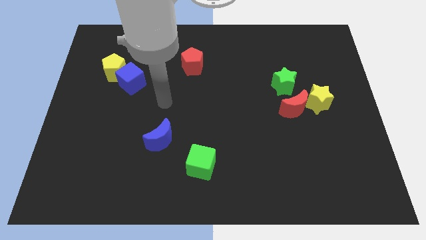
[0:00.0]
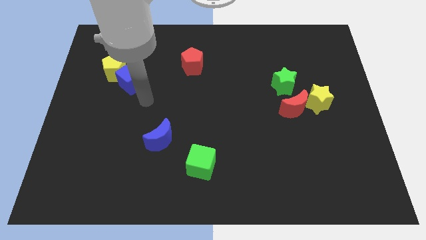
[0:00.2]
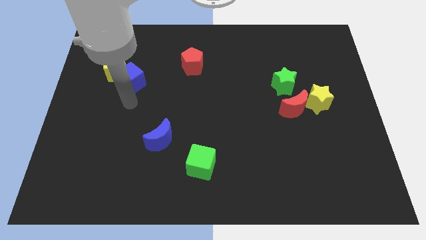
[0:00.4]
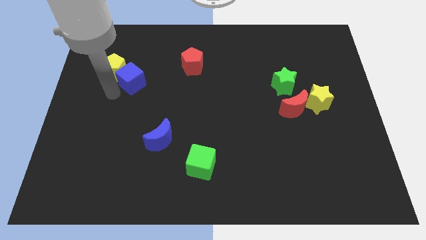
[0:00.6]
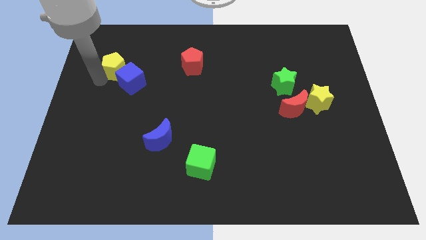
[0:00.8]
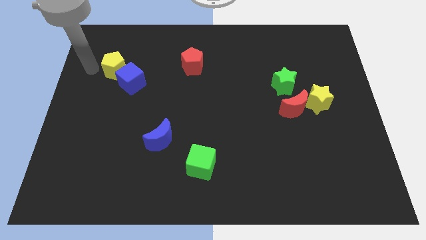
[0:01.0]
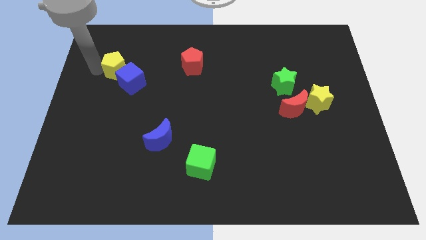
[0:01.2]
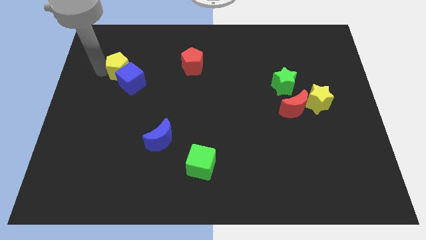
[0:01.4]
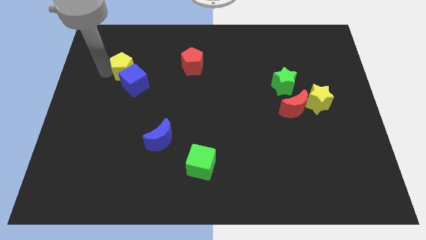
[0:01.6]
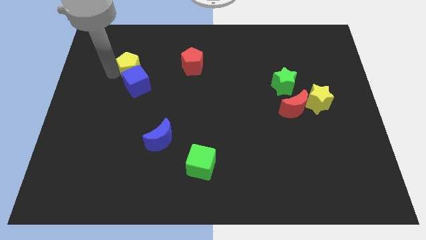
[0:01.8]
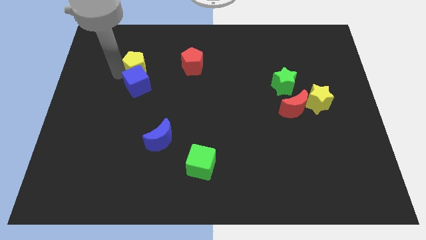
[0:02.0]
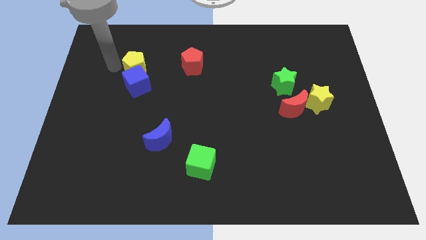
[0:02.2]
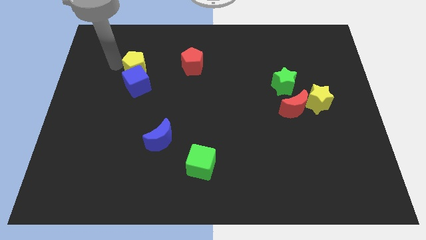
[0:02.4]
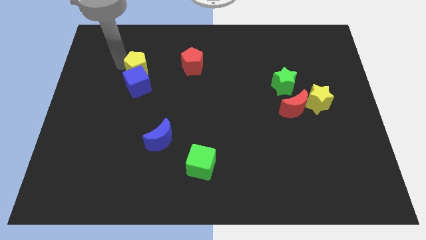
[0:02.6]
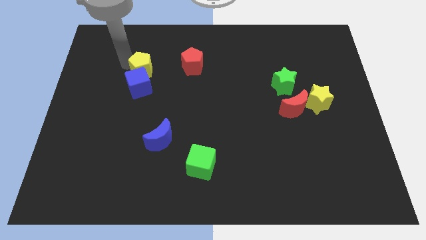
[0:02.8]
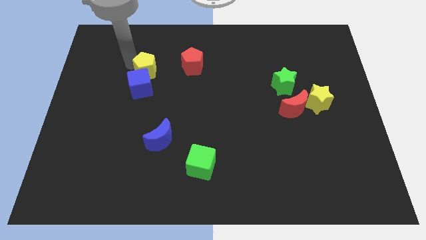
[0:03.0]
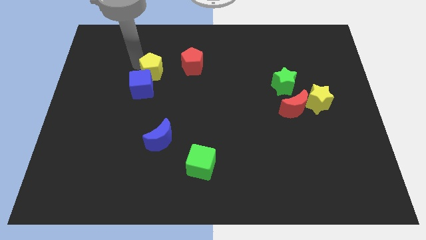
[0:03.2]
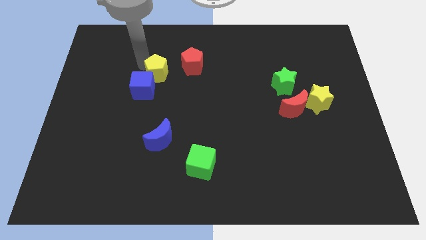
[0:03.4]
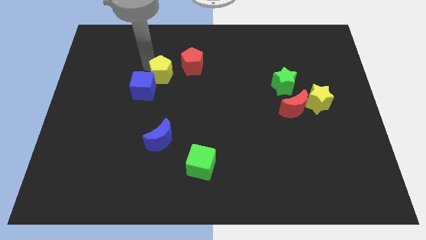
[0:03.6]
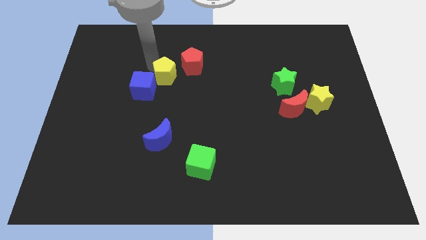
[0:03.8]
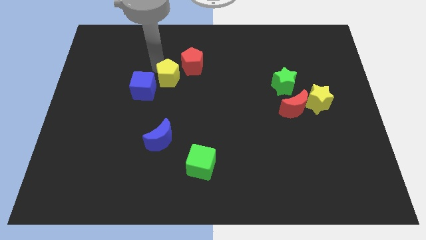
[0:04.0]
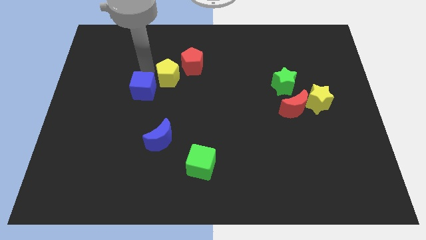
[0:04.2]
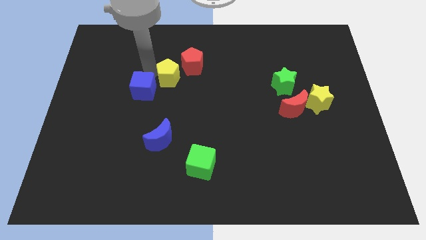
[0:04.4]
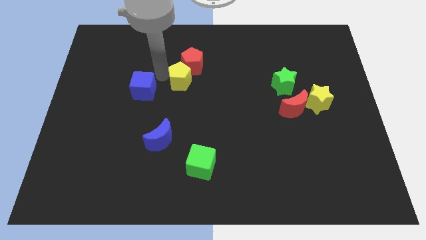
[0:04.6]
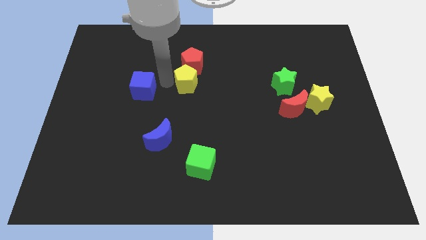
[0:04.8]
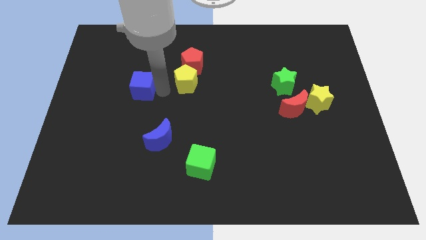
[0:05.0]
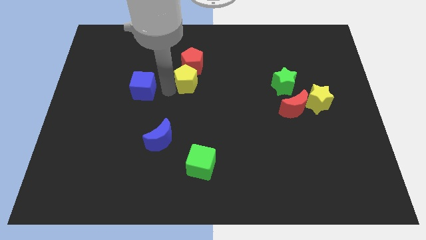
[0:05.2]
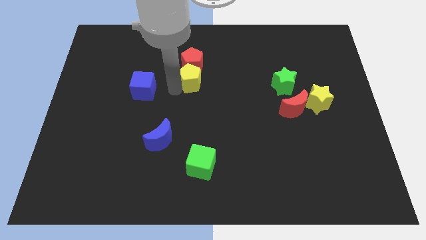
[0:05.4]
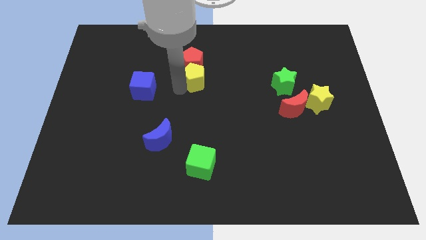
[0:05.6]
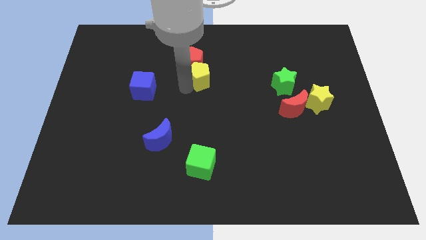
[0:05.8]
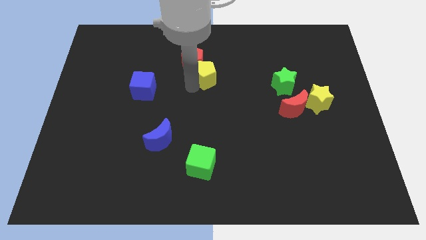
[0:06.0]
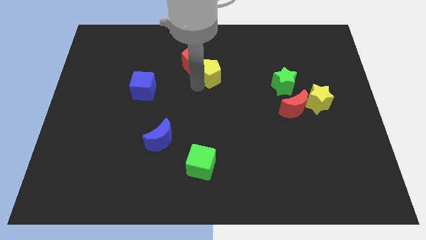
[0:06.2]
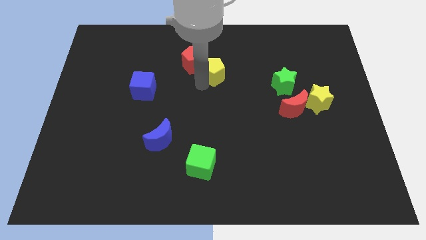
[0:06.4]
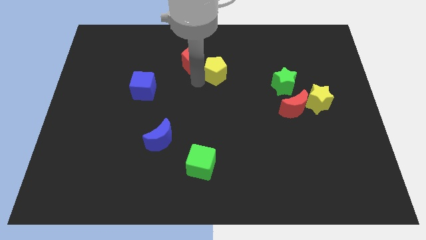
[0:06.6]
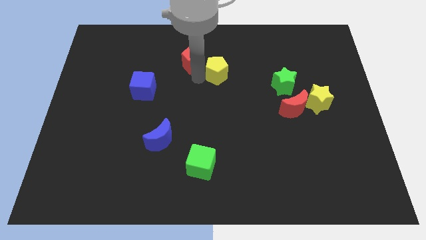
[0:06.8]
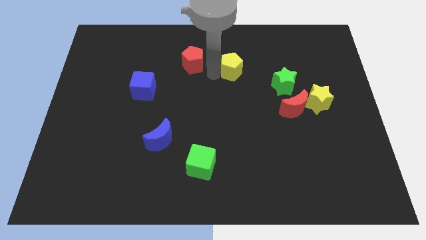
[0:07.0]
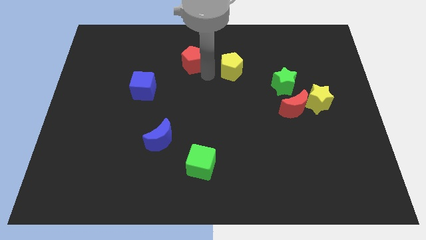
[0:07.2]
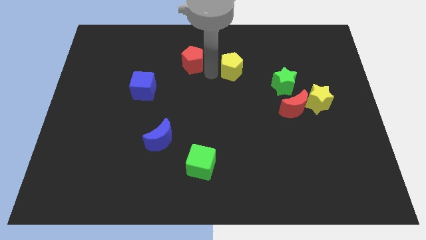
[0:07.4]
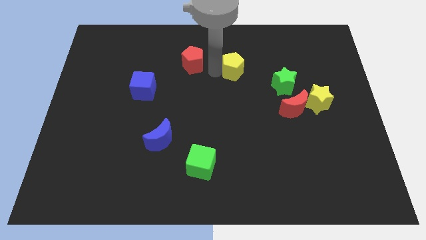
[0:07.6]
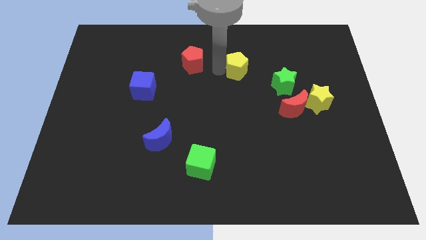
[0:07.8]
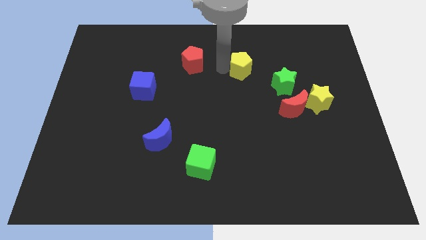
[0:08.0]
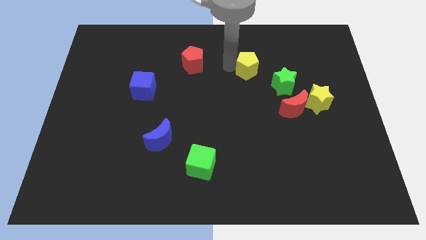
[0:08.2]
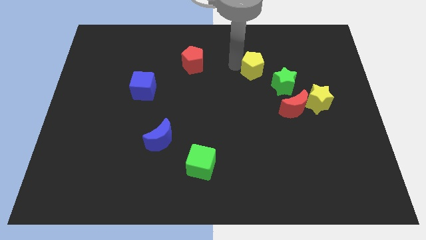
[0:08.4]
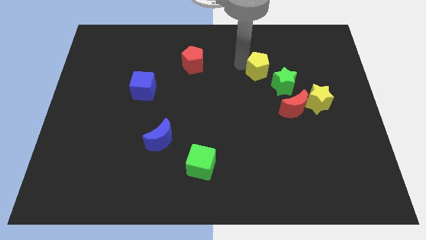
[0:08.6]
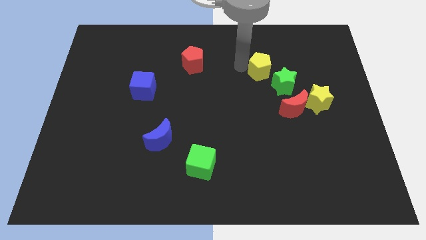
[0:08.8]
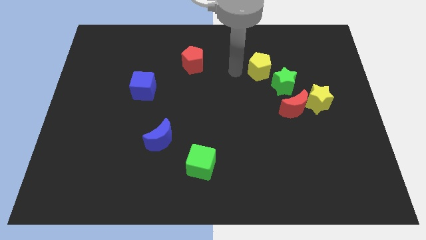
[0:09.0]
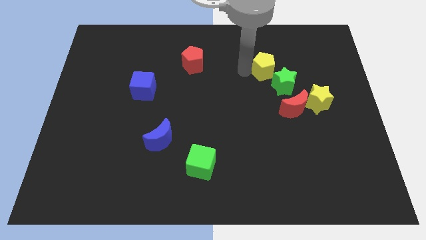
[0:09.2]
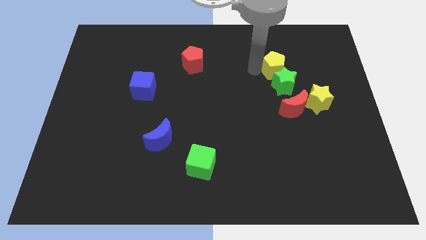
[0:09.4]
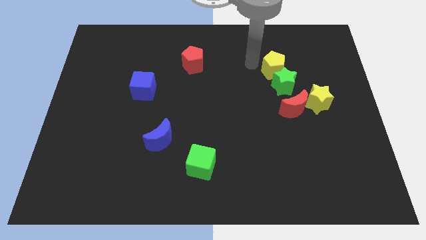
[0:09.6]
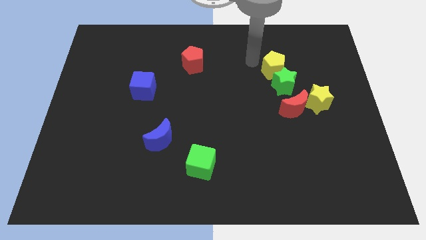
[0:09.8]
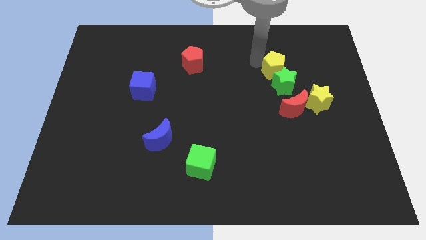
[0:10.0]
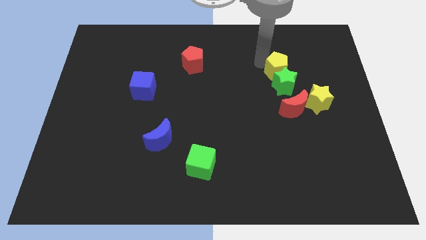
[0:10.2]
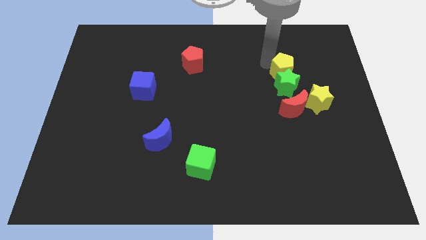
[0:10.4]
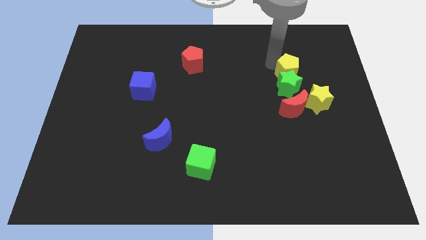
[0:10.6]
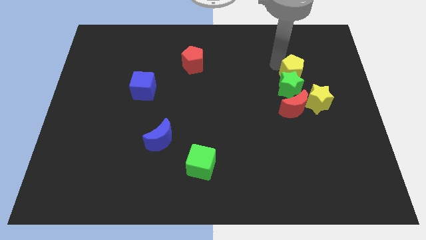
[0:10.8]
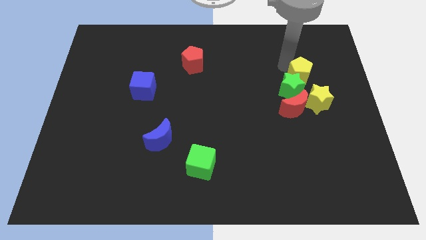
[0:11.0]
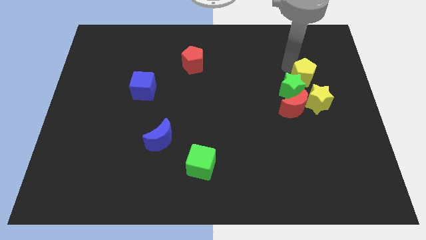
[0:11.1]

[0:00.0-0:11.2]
push the yellow pentagon just right of the green star

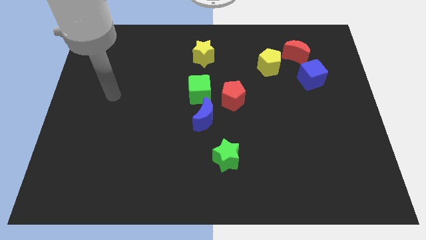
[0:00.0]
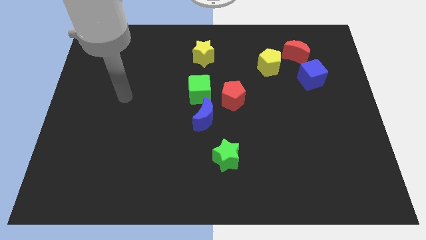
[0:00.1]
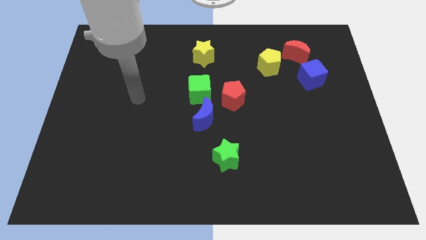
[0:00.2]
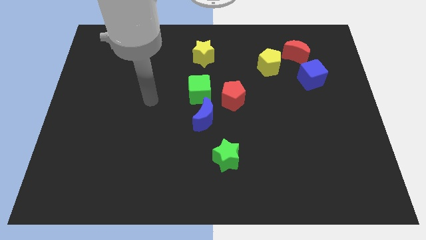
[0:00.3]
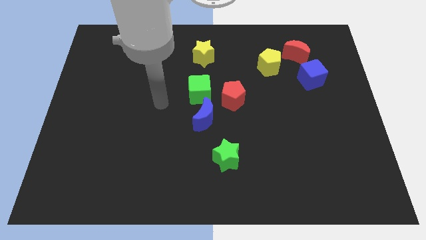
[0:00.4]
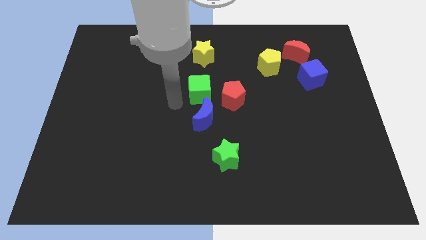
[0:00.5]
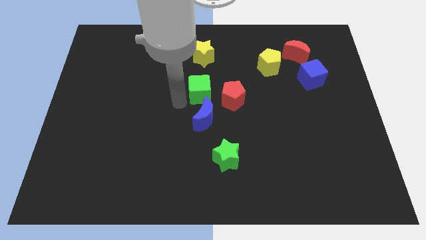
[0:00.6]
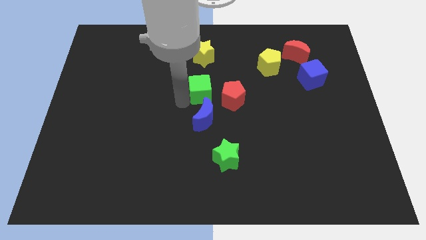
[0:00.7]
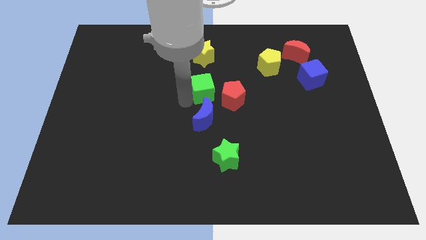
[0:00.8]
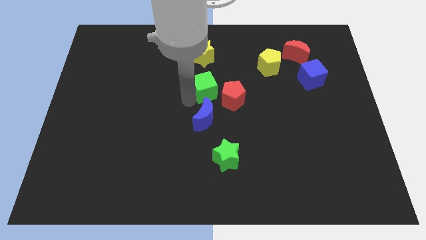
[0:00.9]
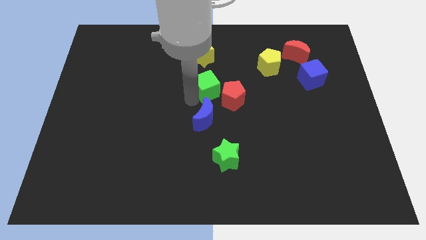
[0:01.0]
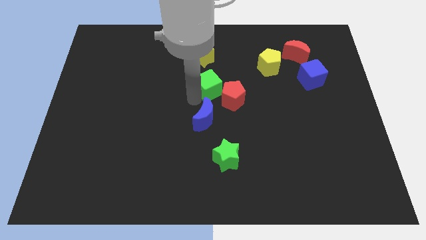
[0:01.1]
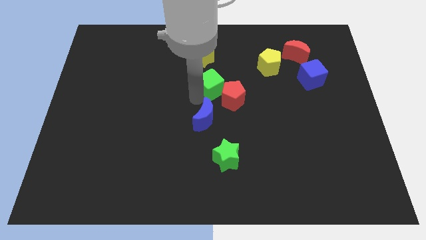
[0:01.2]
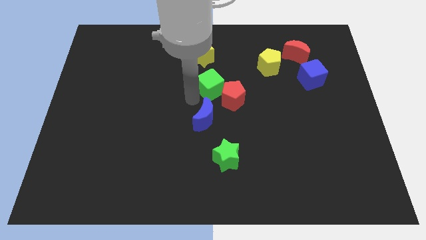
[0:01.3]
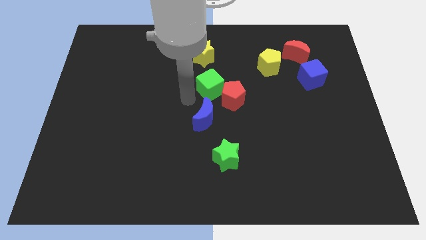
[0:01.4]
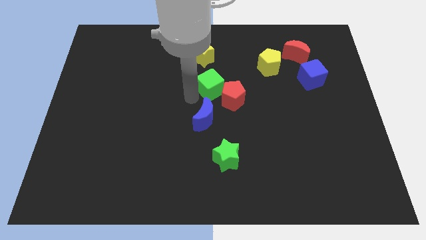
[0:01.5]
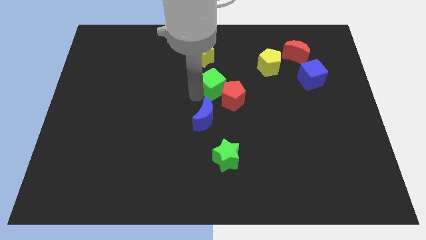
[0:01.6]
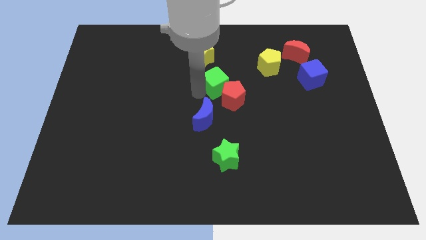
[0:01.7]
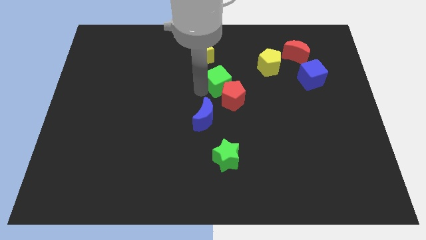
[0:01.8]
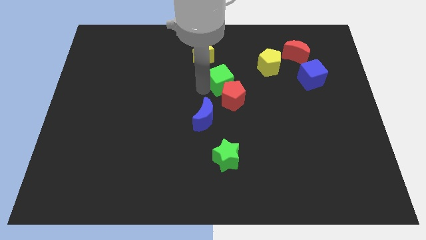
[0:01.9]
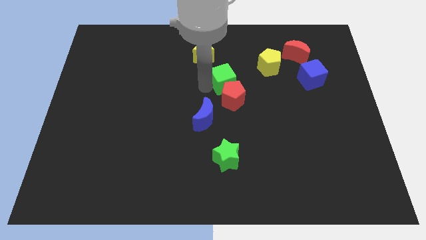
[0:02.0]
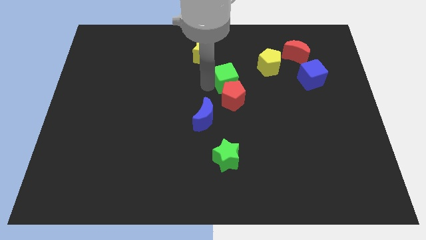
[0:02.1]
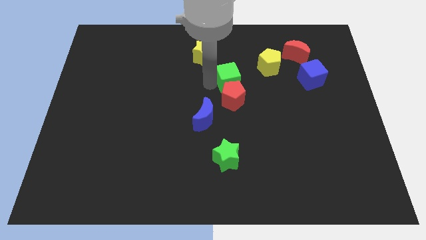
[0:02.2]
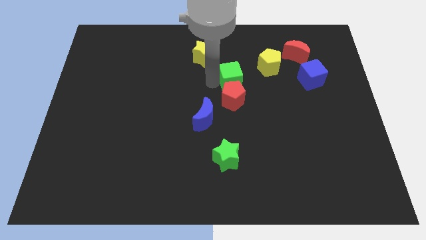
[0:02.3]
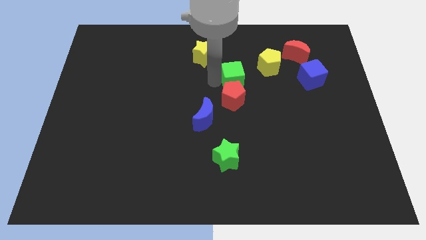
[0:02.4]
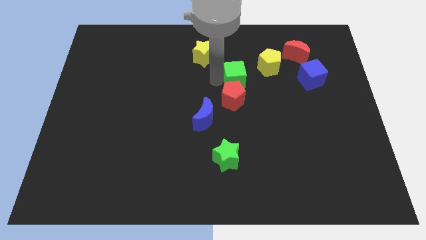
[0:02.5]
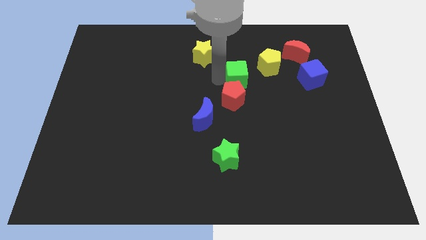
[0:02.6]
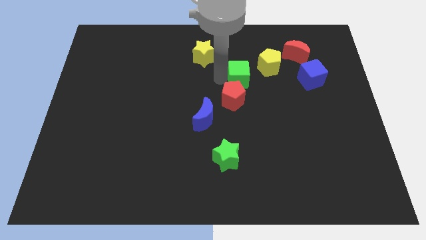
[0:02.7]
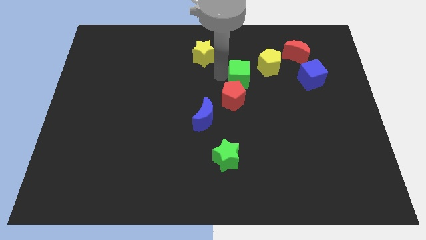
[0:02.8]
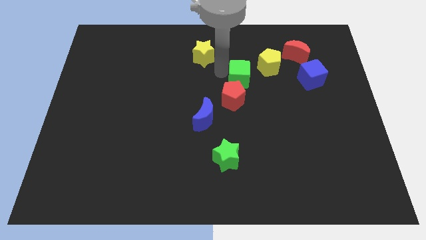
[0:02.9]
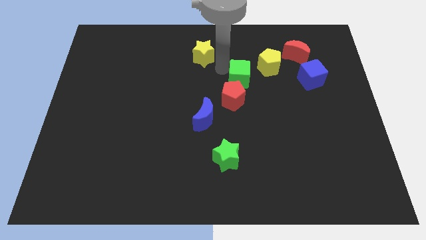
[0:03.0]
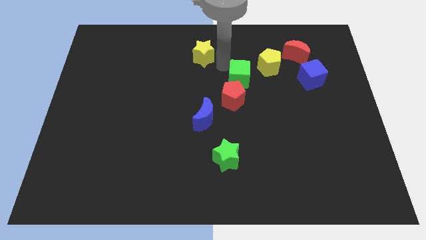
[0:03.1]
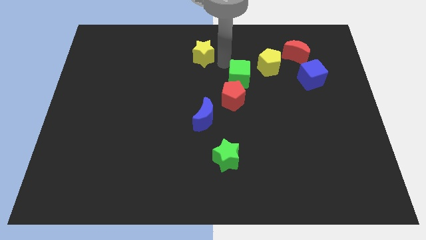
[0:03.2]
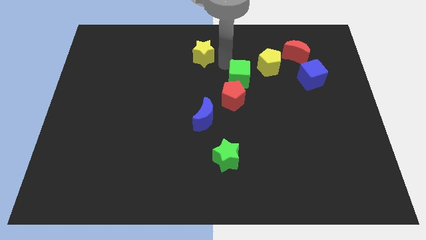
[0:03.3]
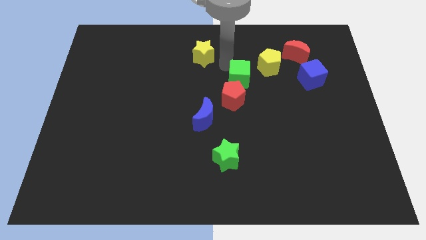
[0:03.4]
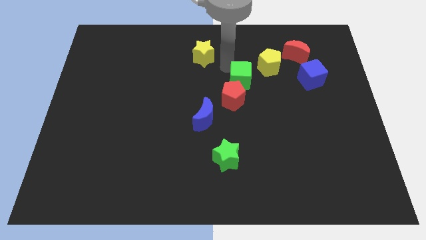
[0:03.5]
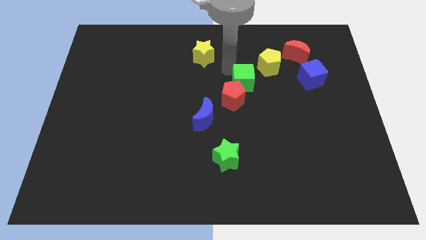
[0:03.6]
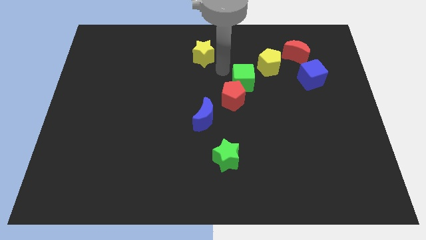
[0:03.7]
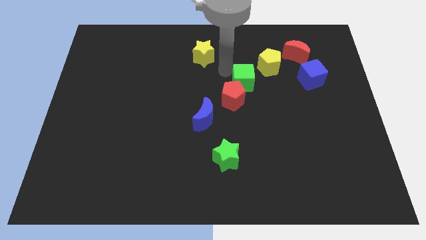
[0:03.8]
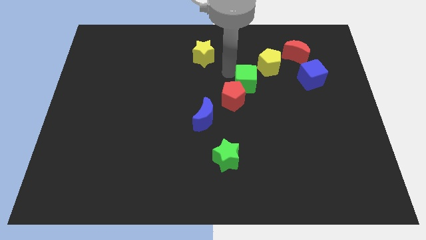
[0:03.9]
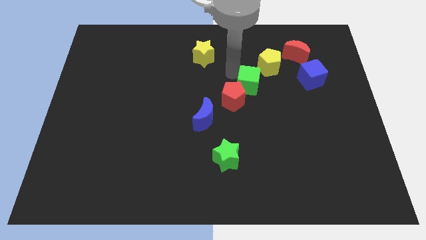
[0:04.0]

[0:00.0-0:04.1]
put the green cube to the right side of the red pentagon
